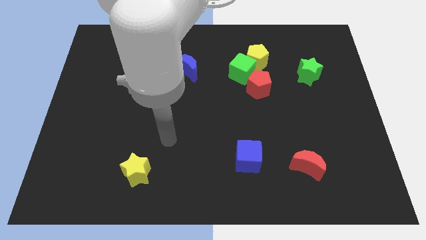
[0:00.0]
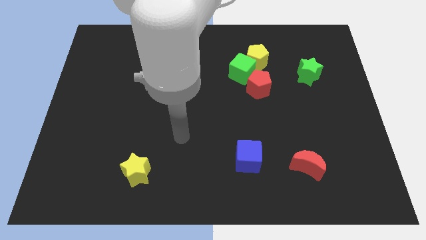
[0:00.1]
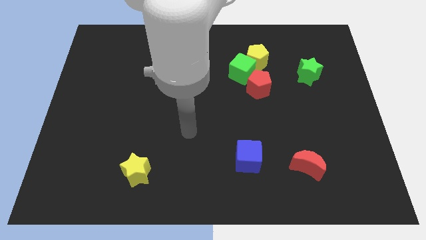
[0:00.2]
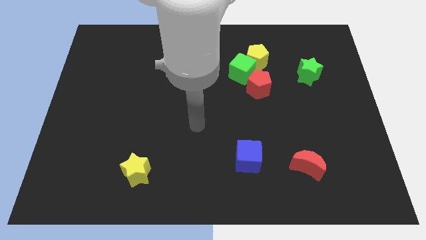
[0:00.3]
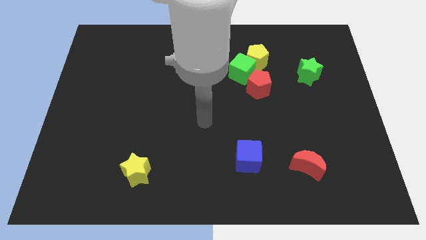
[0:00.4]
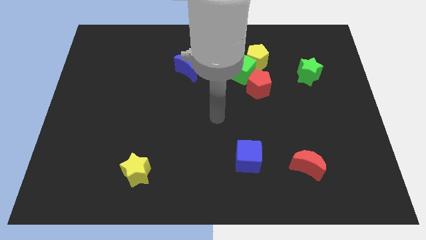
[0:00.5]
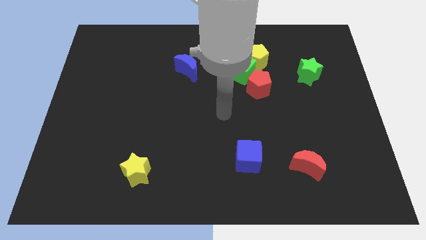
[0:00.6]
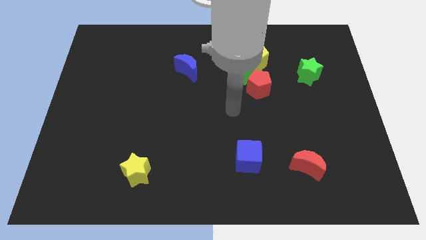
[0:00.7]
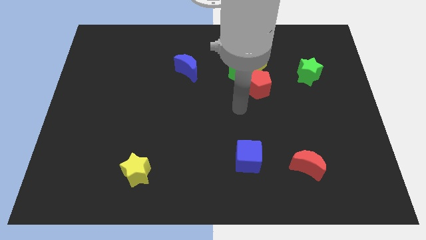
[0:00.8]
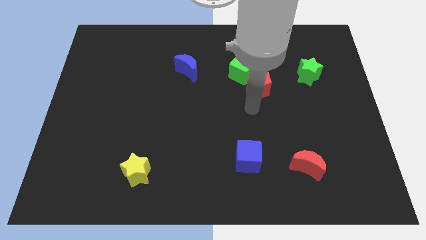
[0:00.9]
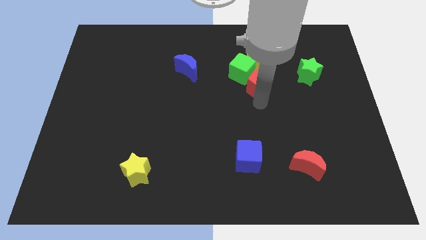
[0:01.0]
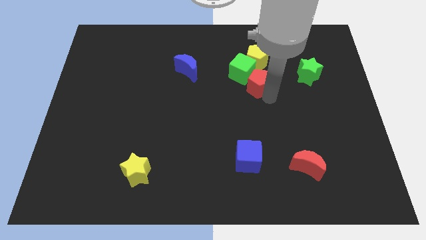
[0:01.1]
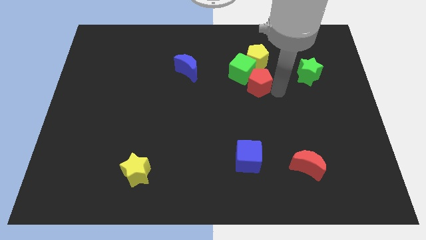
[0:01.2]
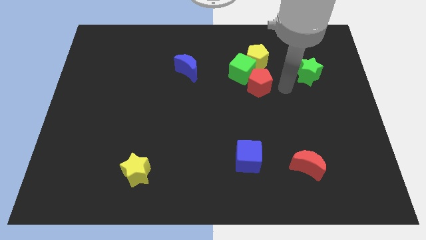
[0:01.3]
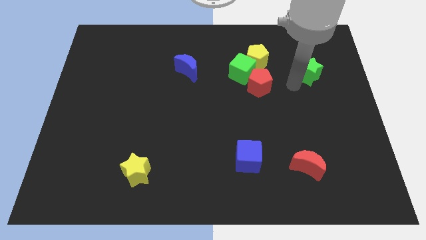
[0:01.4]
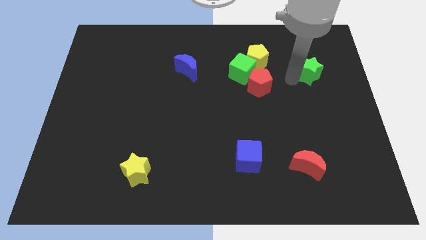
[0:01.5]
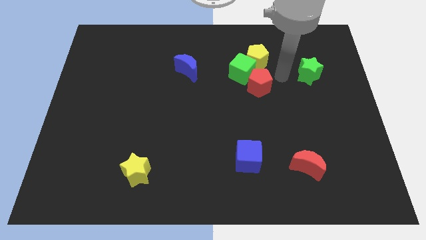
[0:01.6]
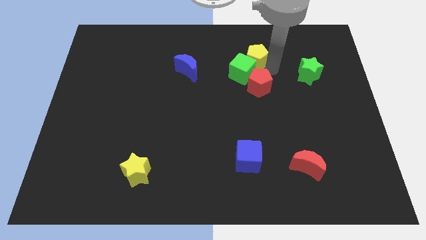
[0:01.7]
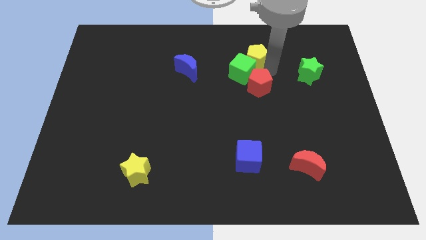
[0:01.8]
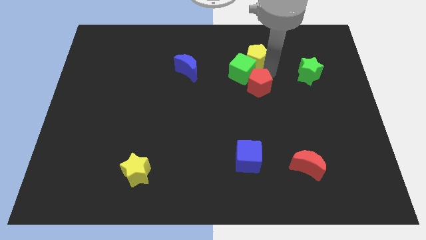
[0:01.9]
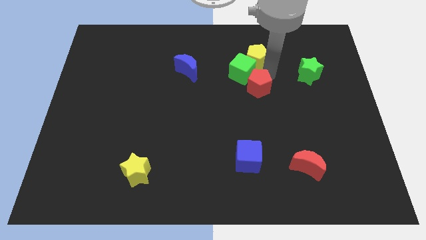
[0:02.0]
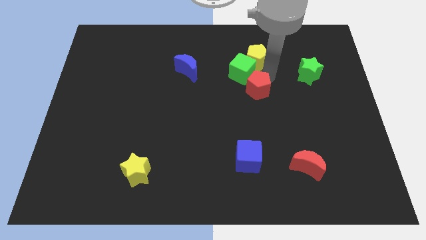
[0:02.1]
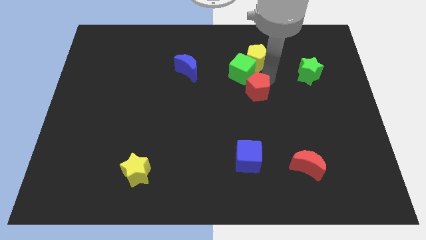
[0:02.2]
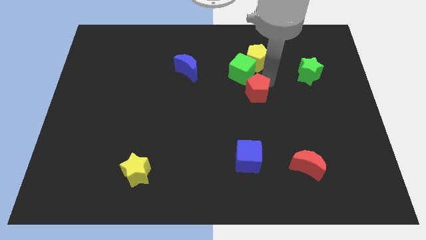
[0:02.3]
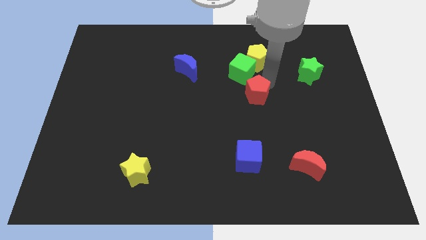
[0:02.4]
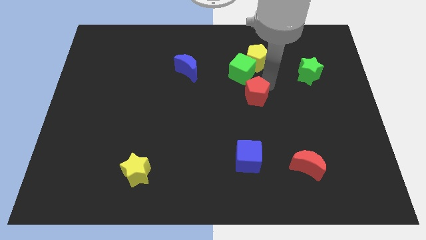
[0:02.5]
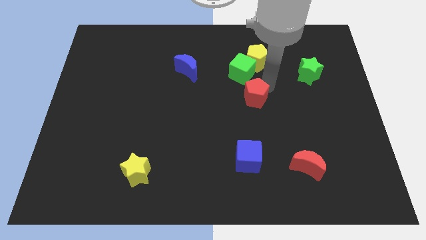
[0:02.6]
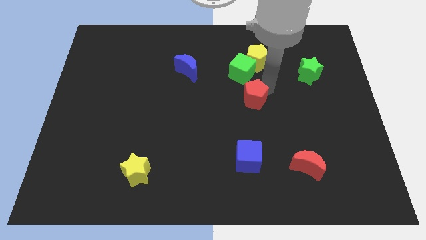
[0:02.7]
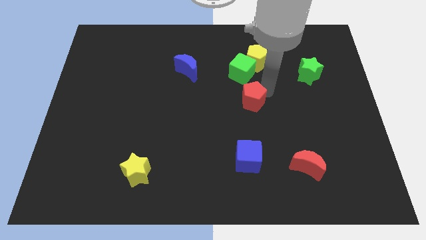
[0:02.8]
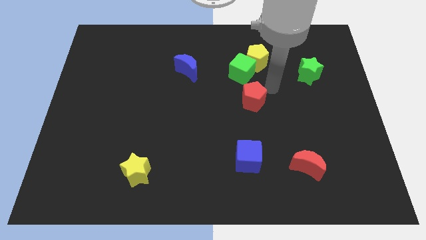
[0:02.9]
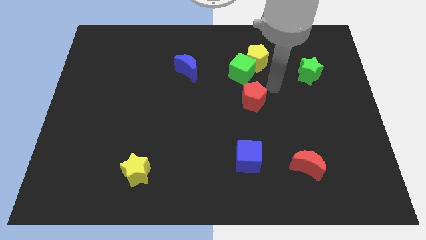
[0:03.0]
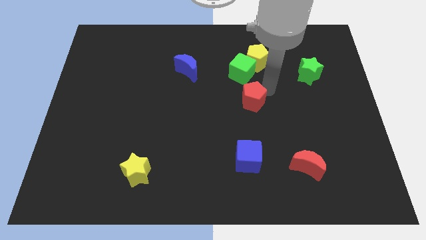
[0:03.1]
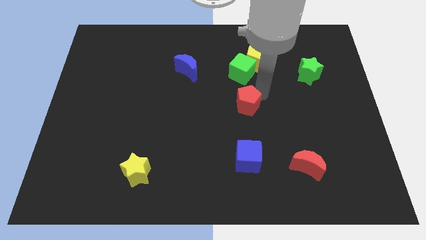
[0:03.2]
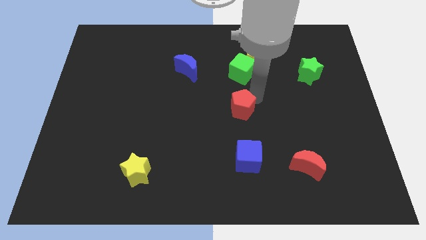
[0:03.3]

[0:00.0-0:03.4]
push the red pentagon down and to the left diagonally somewhat

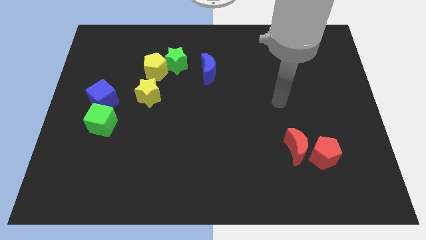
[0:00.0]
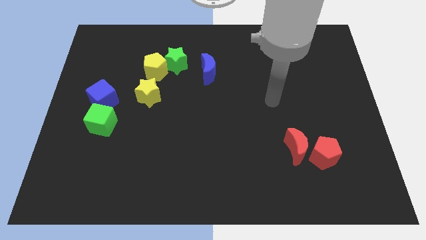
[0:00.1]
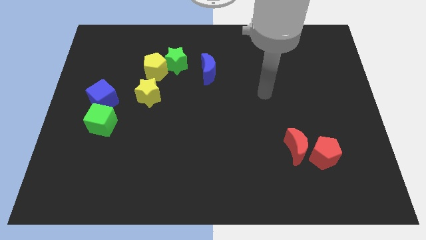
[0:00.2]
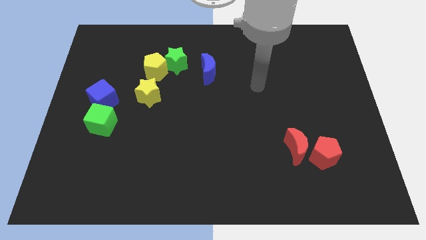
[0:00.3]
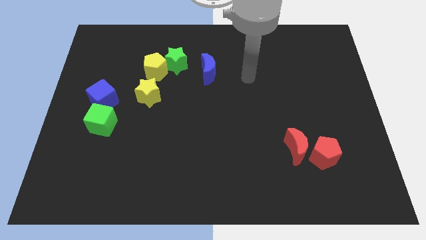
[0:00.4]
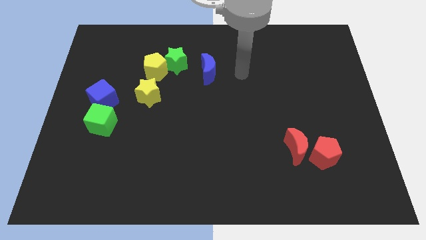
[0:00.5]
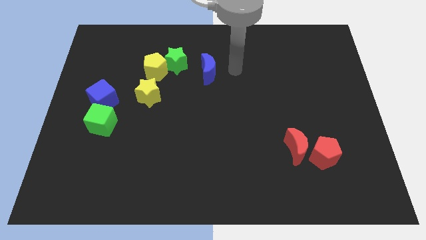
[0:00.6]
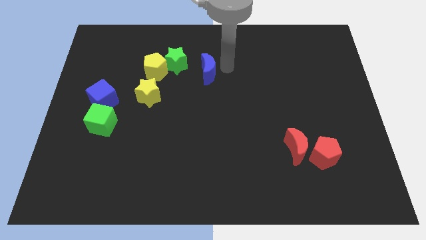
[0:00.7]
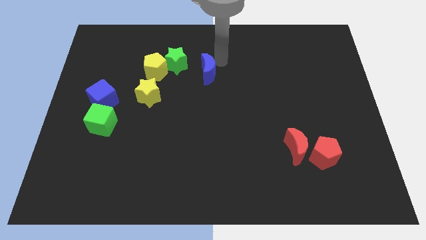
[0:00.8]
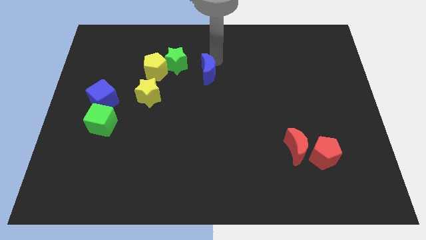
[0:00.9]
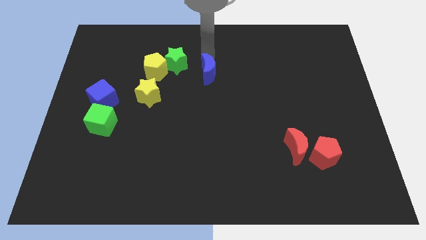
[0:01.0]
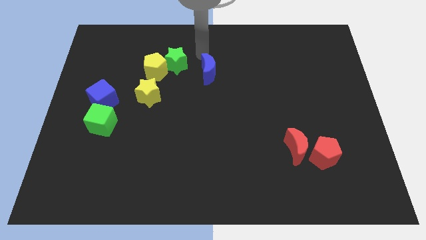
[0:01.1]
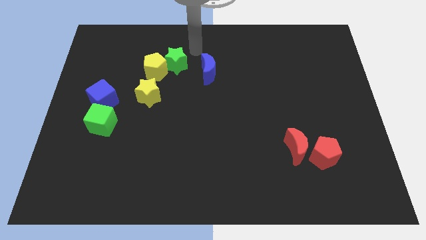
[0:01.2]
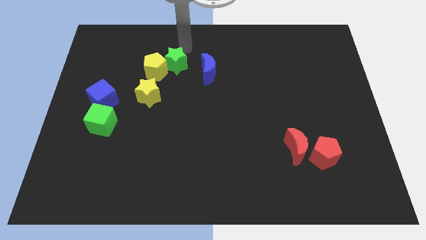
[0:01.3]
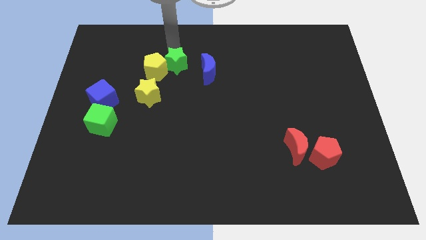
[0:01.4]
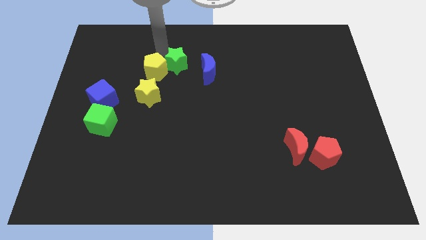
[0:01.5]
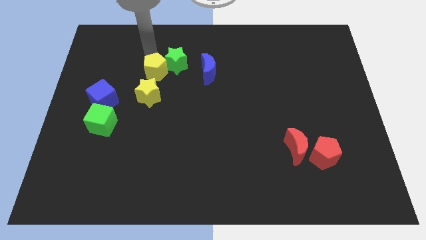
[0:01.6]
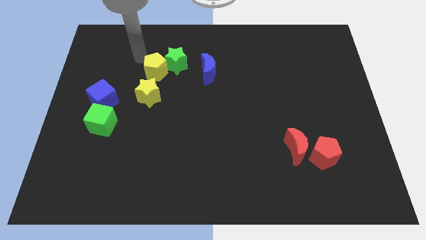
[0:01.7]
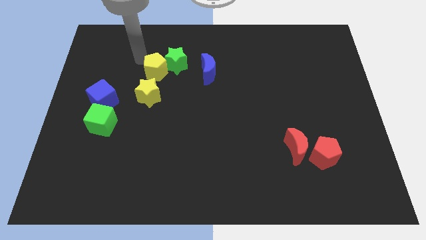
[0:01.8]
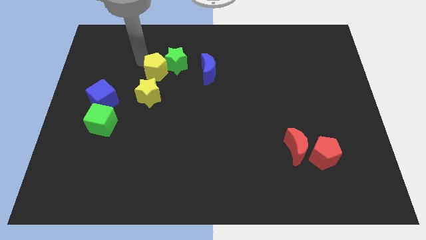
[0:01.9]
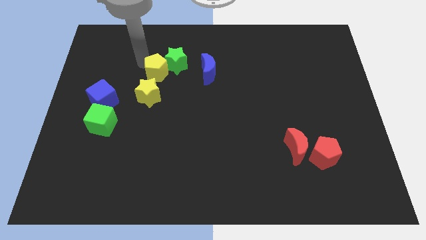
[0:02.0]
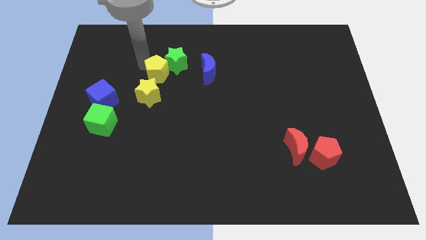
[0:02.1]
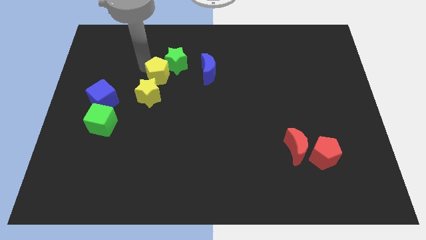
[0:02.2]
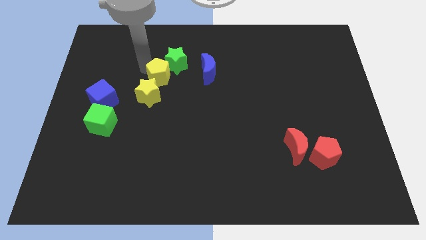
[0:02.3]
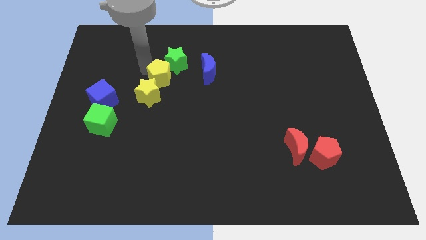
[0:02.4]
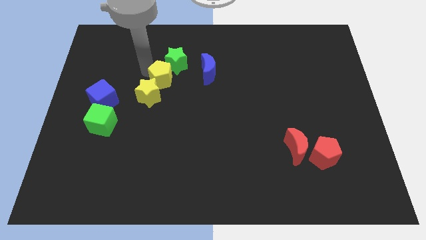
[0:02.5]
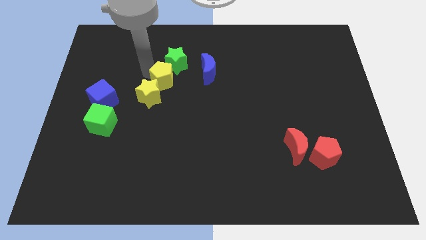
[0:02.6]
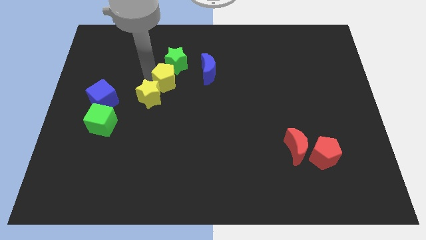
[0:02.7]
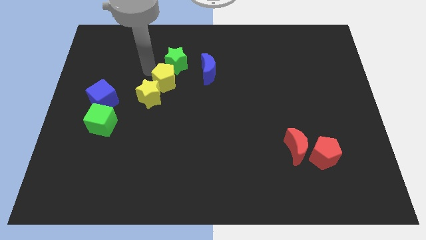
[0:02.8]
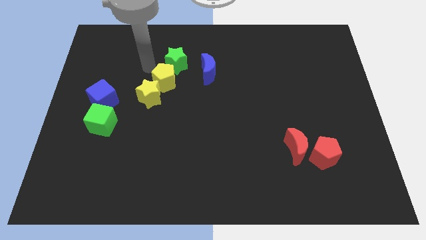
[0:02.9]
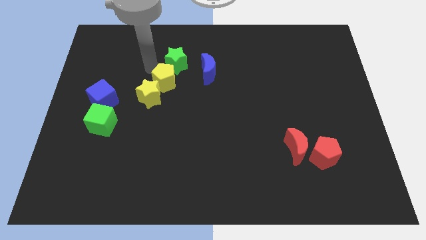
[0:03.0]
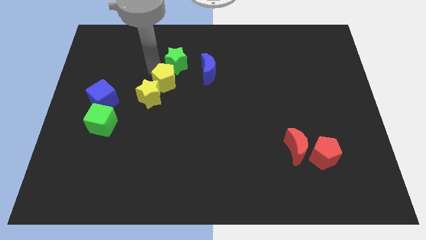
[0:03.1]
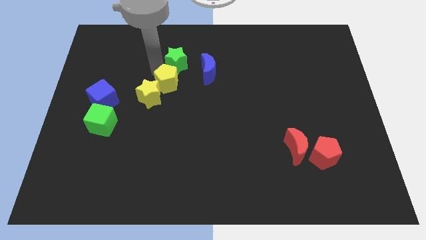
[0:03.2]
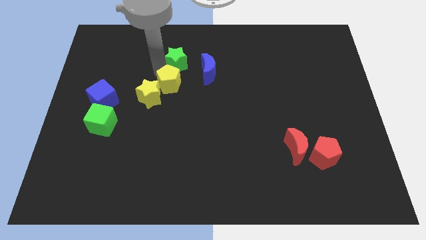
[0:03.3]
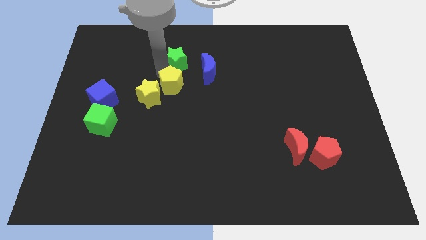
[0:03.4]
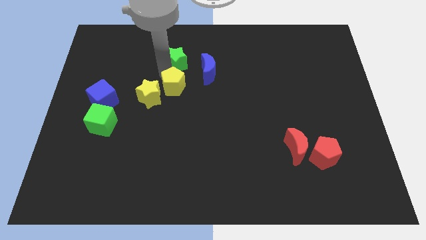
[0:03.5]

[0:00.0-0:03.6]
push the yellow pentagon slightly down and then right

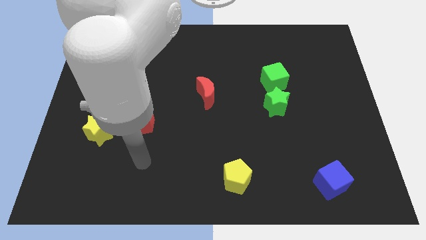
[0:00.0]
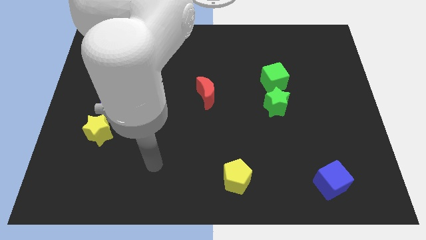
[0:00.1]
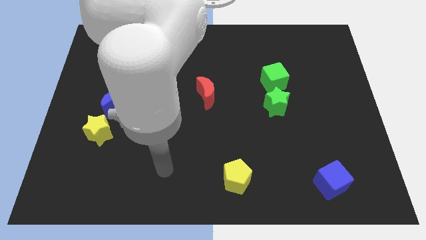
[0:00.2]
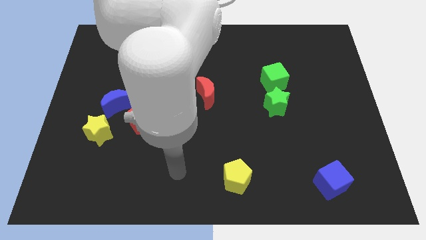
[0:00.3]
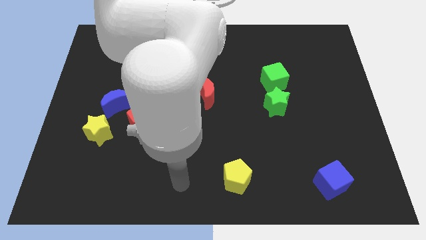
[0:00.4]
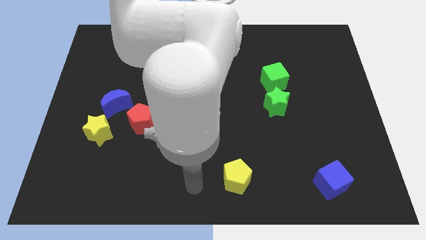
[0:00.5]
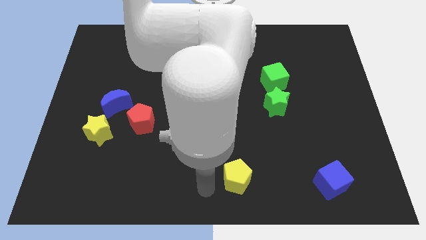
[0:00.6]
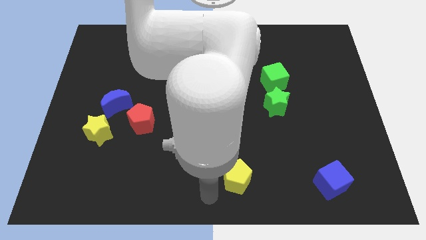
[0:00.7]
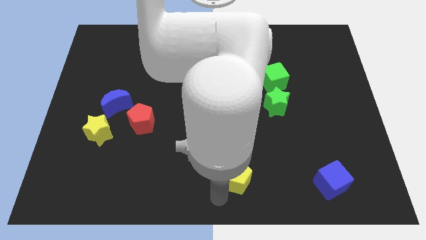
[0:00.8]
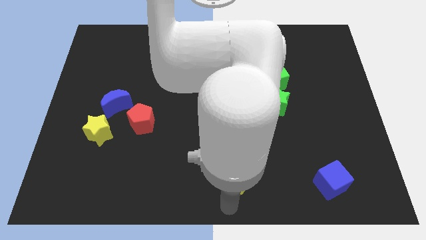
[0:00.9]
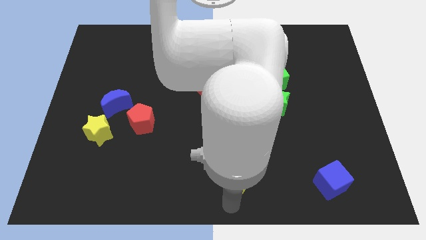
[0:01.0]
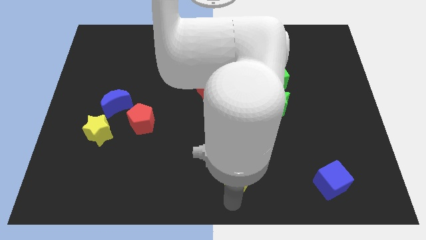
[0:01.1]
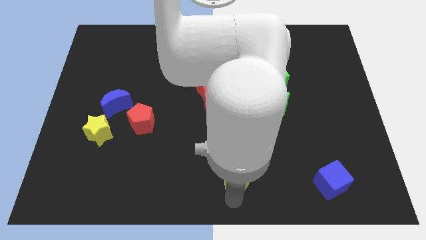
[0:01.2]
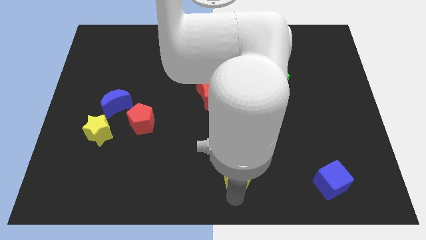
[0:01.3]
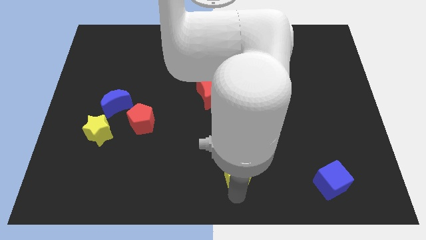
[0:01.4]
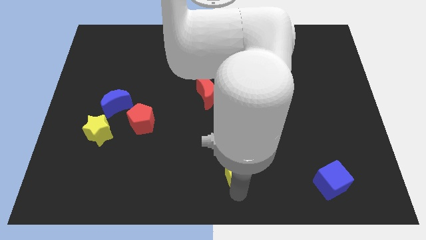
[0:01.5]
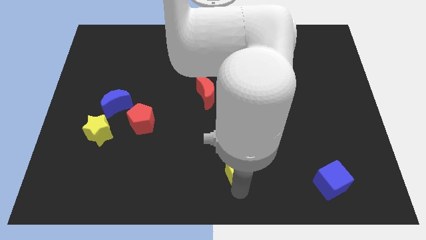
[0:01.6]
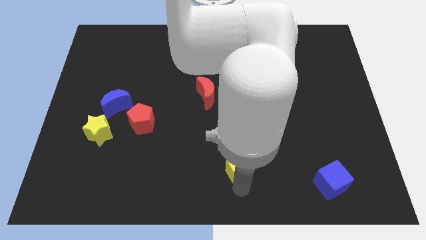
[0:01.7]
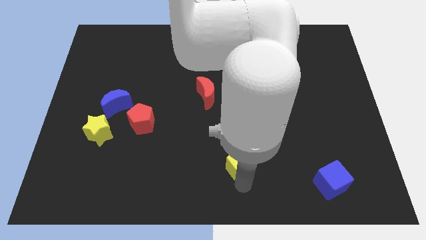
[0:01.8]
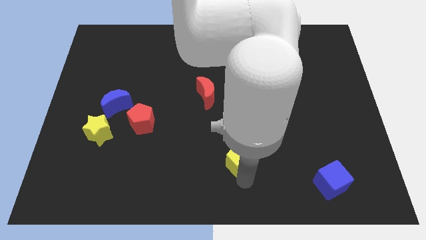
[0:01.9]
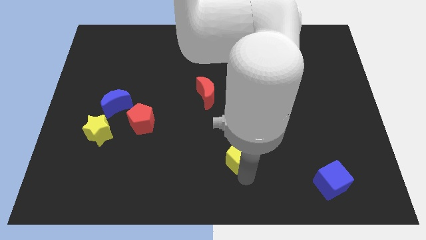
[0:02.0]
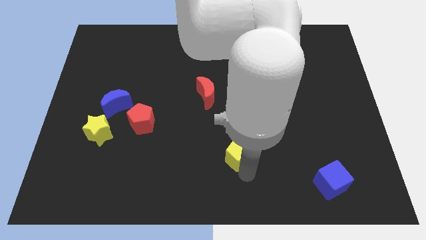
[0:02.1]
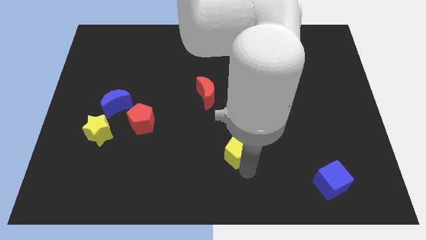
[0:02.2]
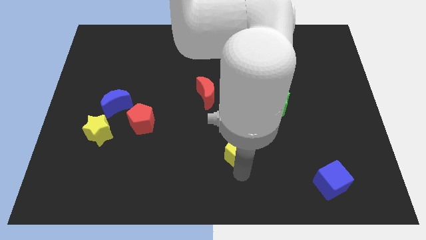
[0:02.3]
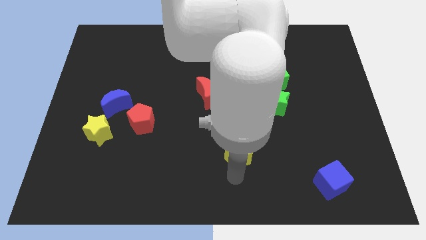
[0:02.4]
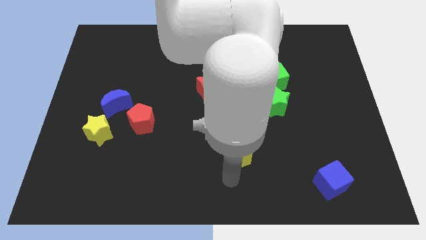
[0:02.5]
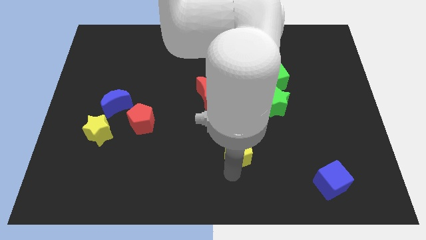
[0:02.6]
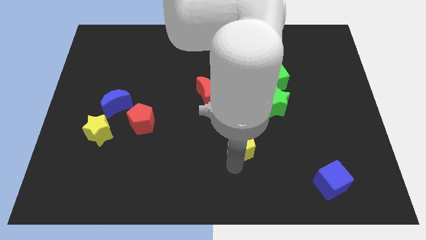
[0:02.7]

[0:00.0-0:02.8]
slightly move the yellow pentagon upwards
